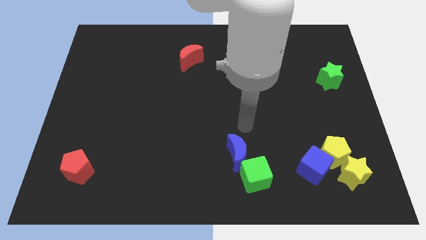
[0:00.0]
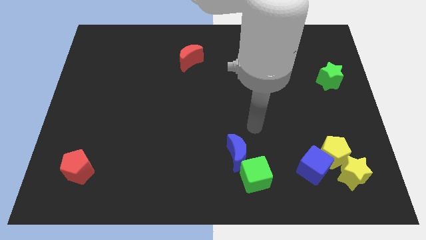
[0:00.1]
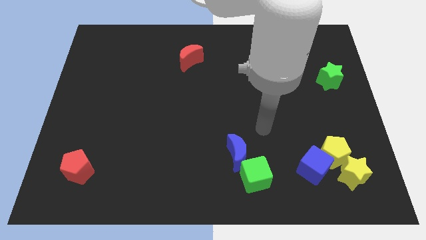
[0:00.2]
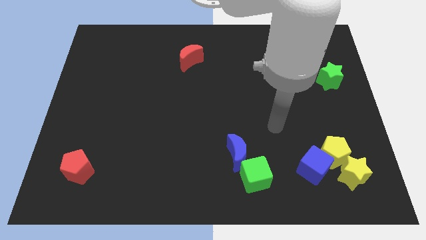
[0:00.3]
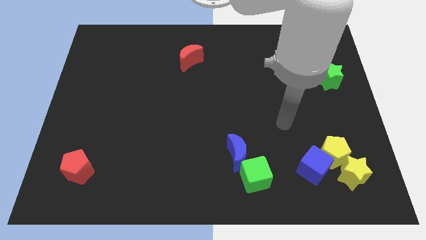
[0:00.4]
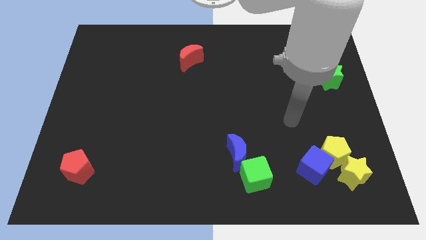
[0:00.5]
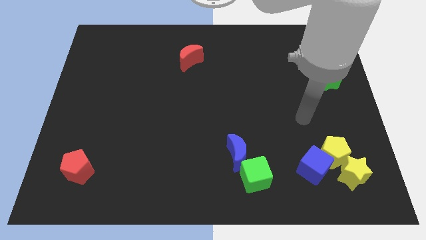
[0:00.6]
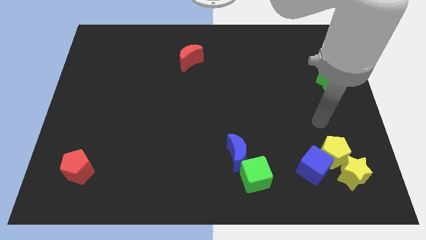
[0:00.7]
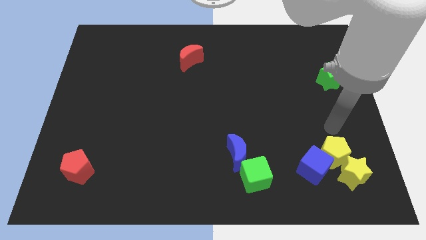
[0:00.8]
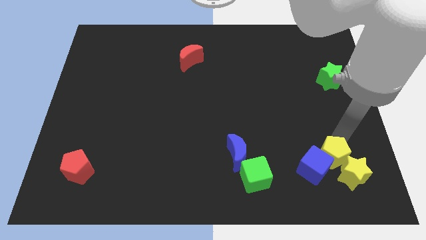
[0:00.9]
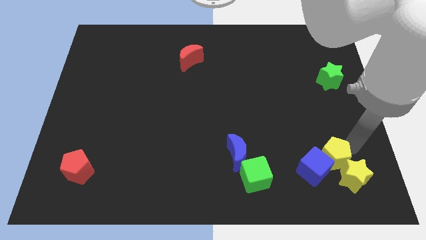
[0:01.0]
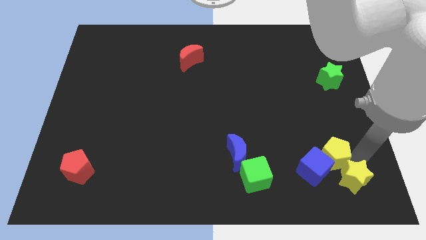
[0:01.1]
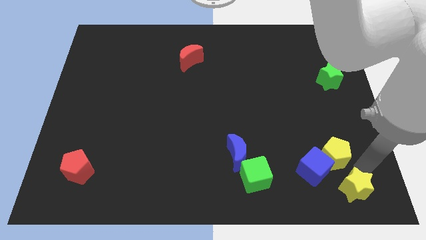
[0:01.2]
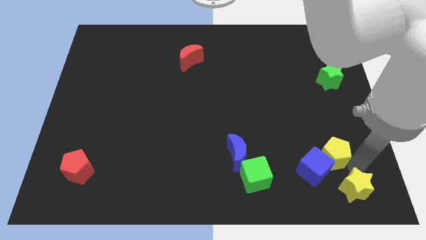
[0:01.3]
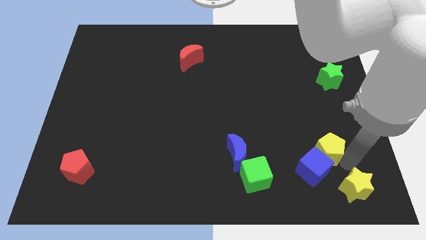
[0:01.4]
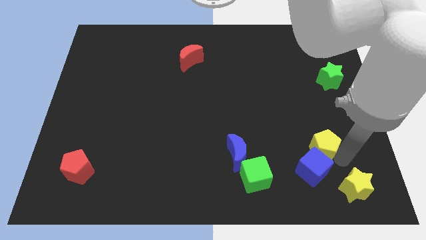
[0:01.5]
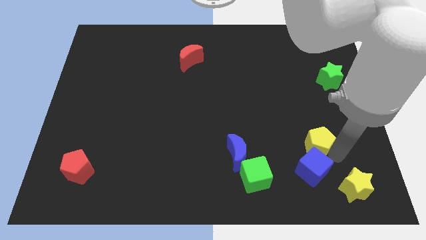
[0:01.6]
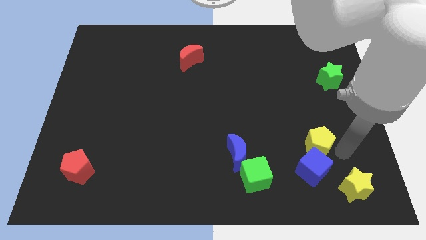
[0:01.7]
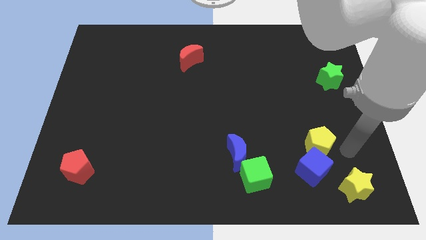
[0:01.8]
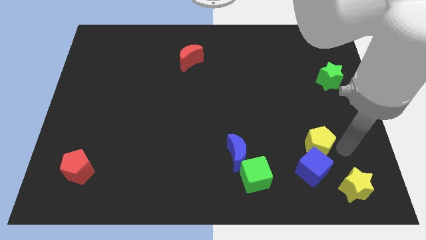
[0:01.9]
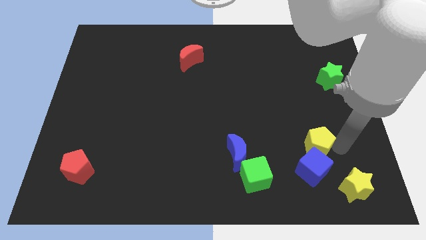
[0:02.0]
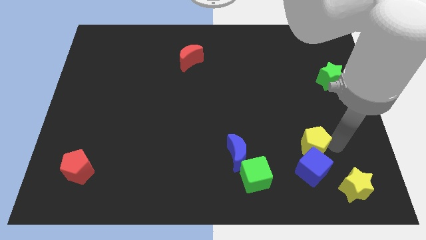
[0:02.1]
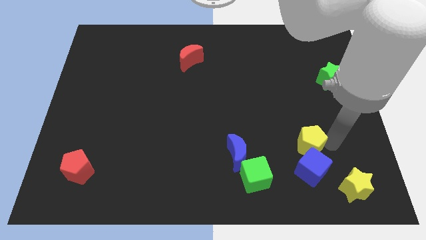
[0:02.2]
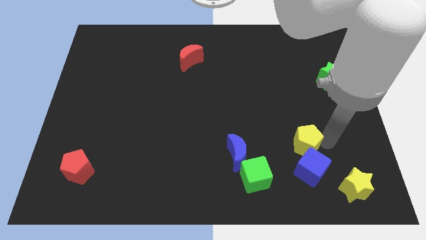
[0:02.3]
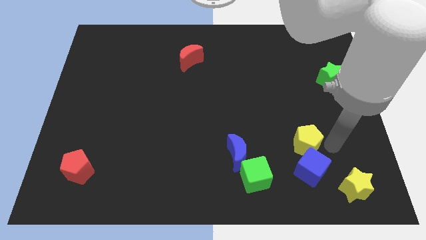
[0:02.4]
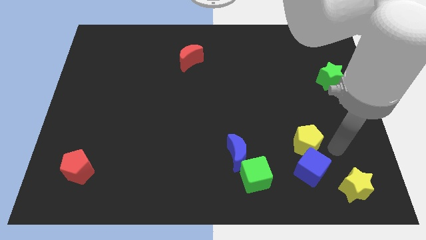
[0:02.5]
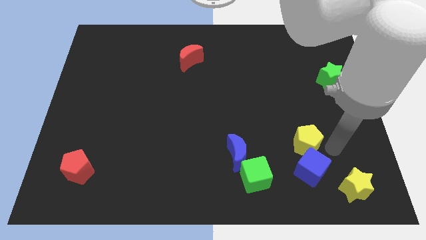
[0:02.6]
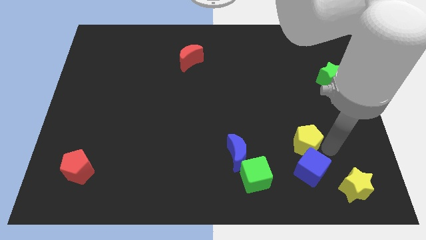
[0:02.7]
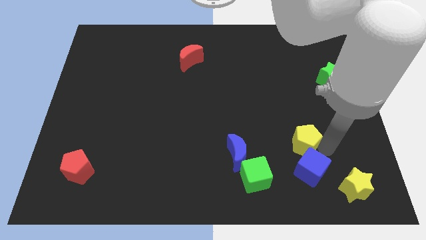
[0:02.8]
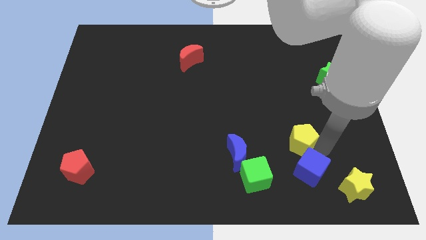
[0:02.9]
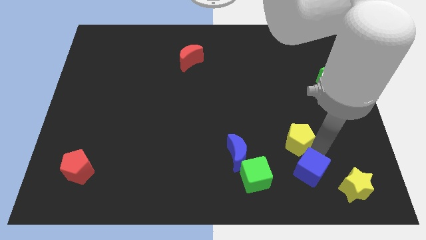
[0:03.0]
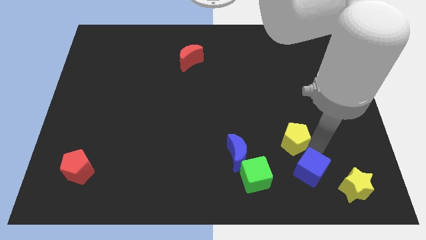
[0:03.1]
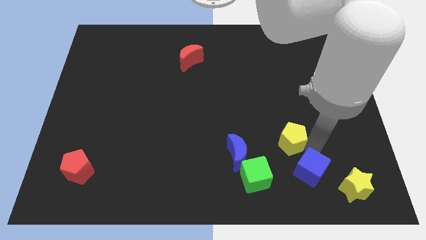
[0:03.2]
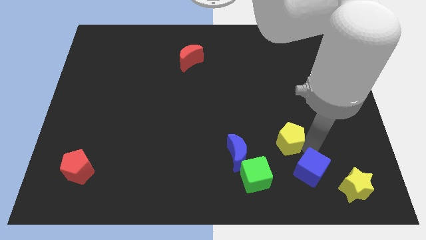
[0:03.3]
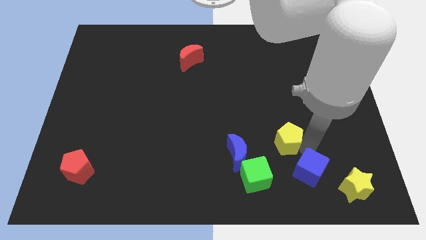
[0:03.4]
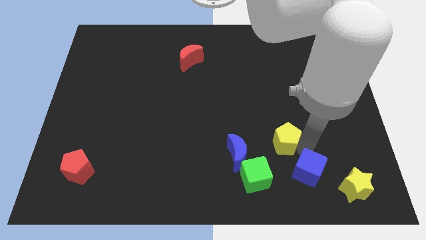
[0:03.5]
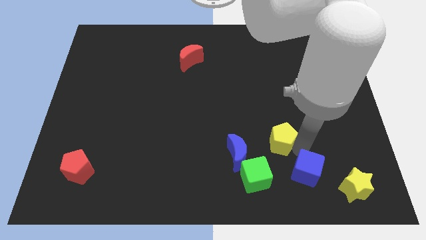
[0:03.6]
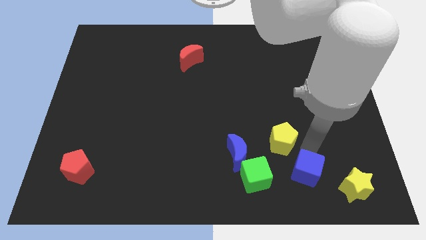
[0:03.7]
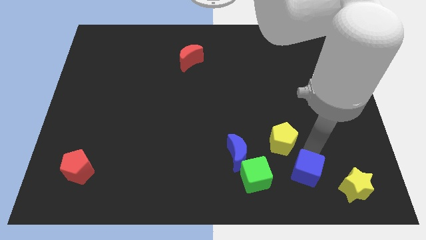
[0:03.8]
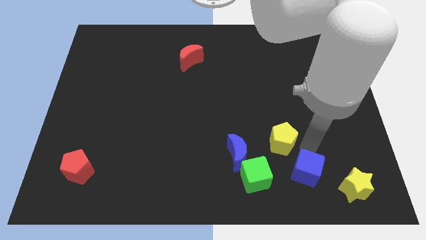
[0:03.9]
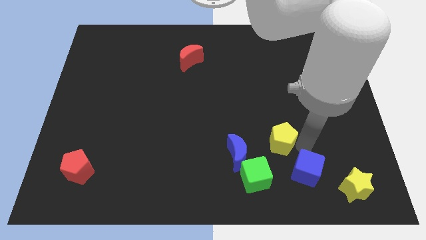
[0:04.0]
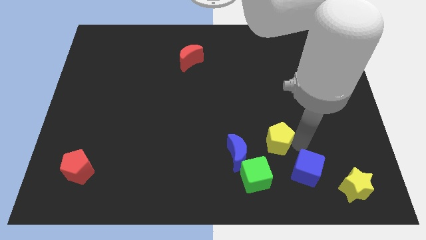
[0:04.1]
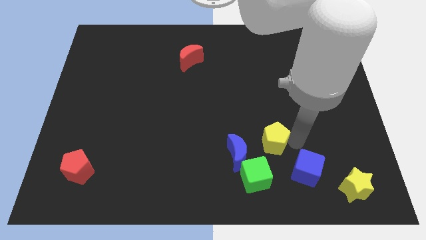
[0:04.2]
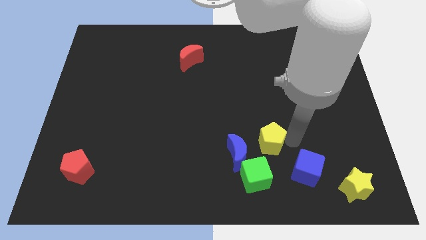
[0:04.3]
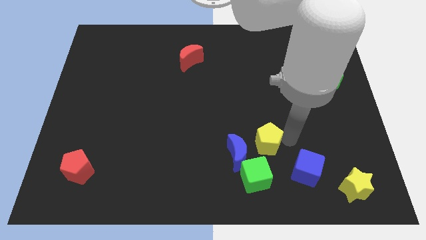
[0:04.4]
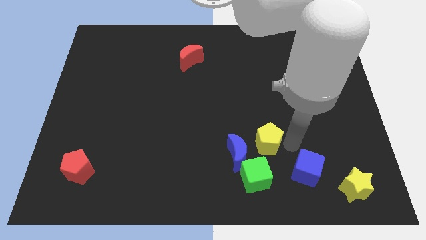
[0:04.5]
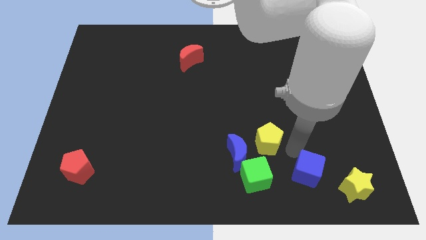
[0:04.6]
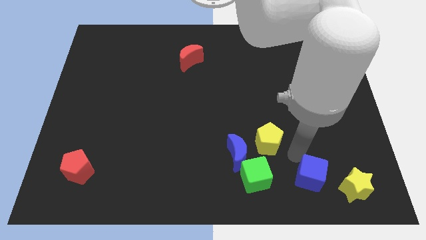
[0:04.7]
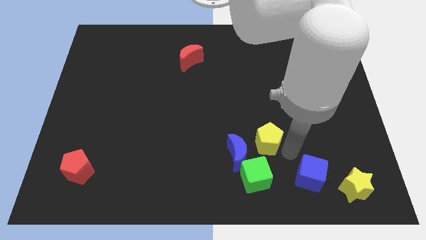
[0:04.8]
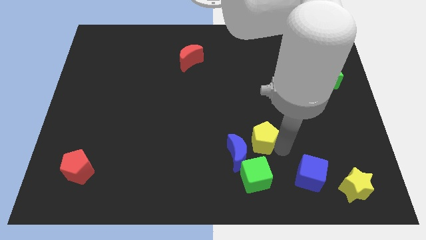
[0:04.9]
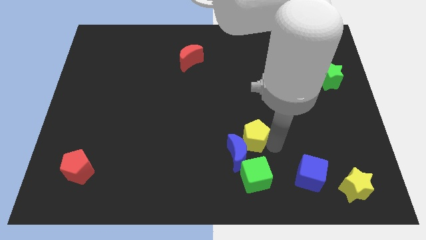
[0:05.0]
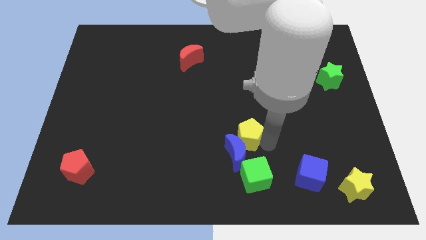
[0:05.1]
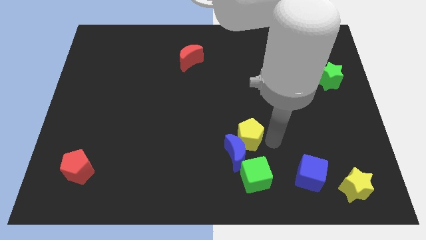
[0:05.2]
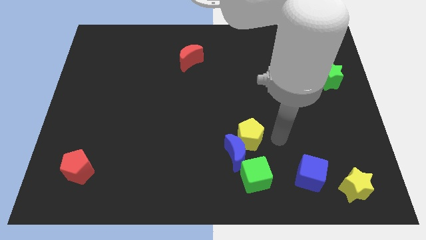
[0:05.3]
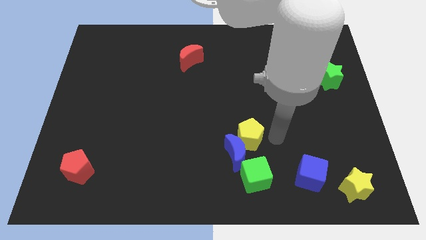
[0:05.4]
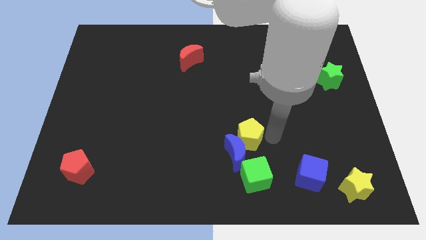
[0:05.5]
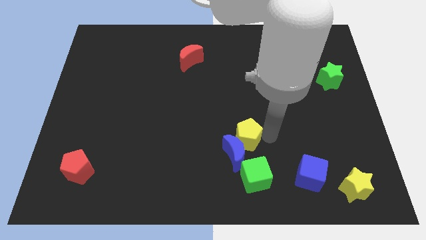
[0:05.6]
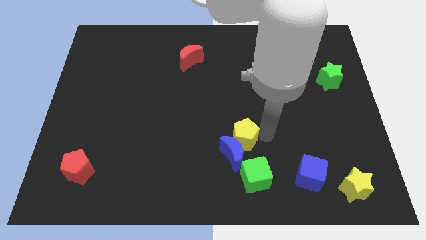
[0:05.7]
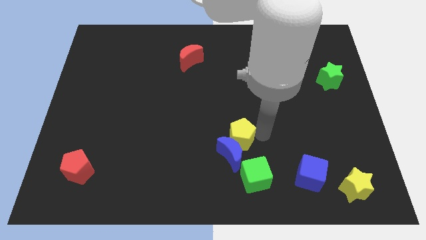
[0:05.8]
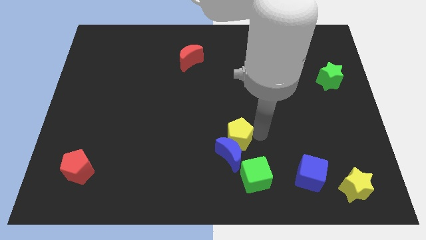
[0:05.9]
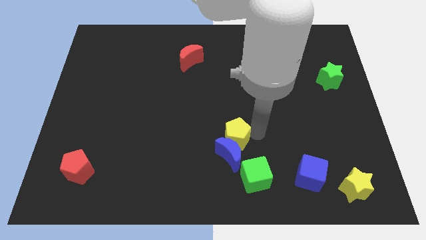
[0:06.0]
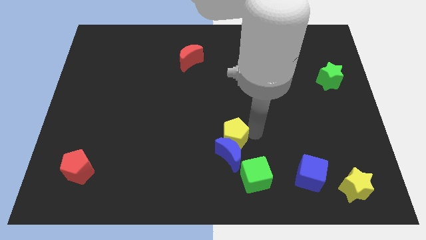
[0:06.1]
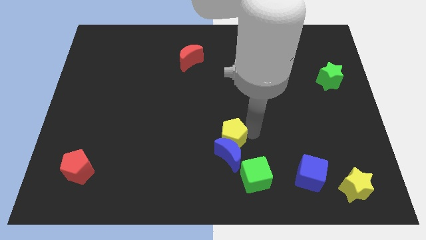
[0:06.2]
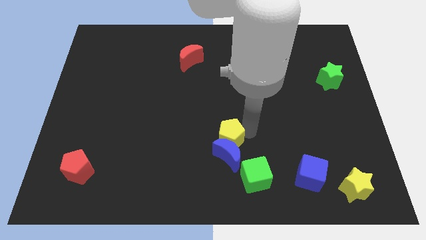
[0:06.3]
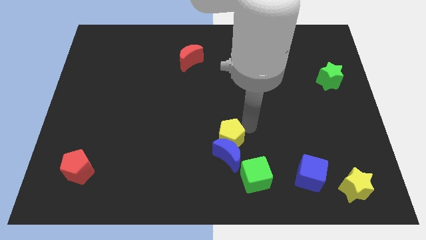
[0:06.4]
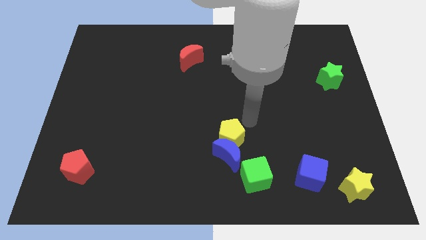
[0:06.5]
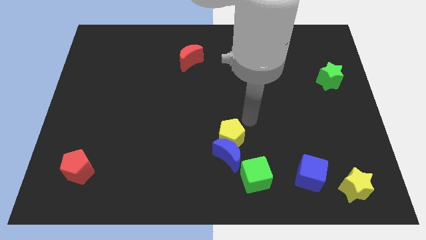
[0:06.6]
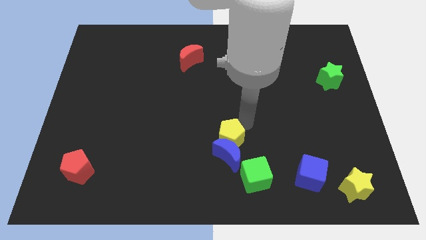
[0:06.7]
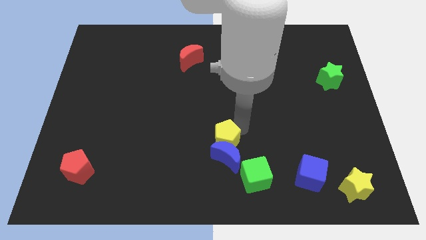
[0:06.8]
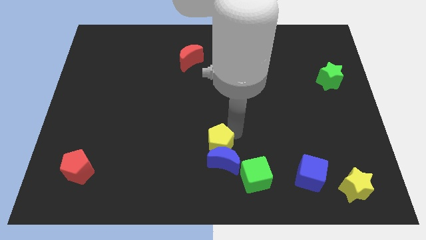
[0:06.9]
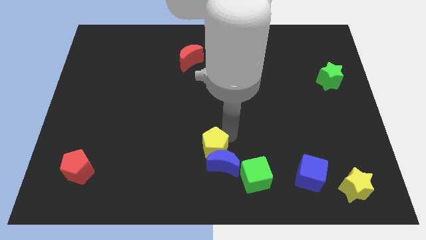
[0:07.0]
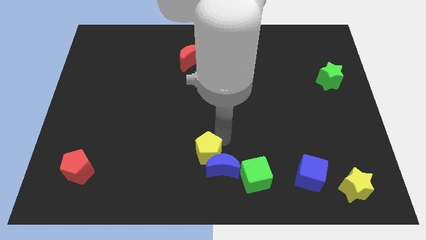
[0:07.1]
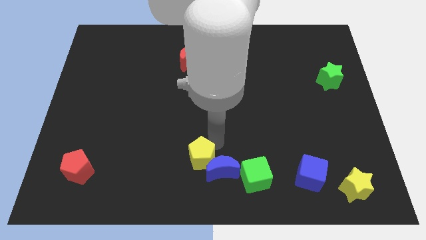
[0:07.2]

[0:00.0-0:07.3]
push the yellow pentagon to the left side of the green cube
